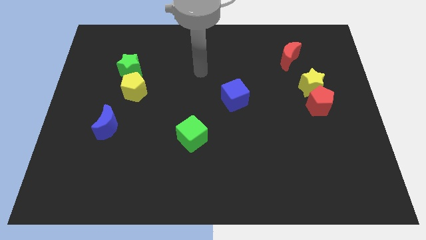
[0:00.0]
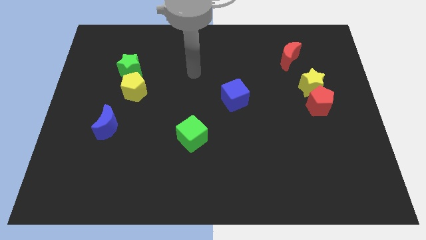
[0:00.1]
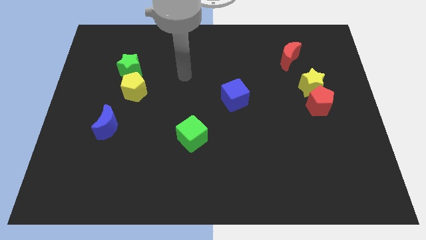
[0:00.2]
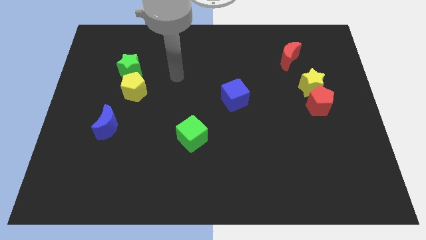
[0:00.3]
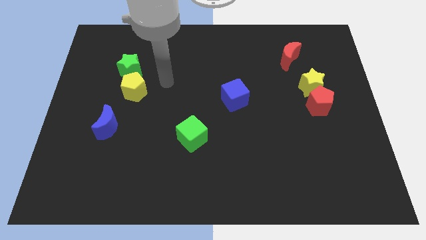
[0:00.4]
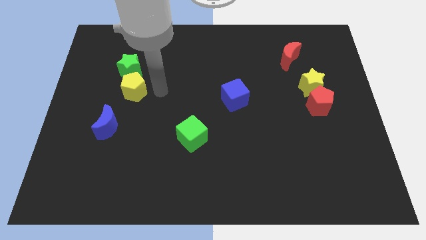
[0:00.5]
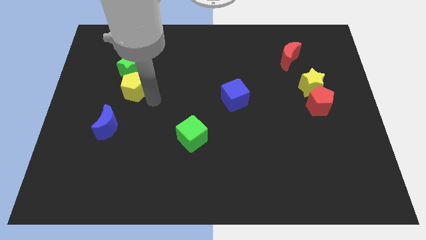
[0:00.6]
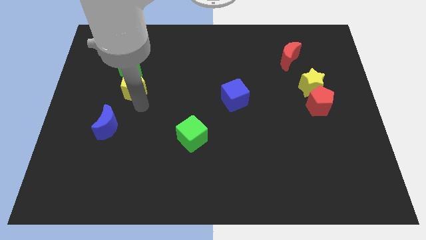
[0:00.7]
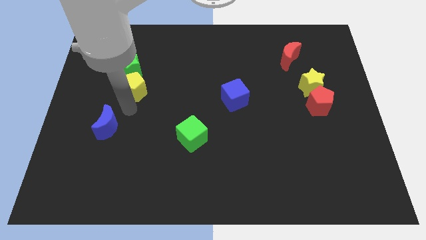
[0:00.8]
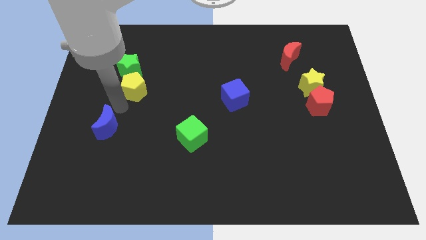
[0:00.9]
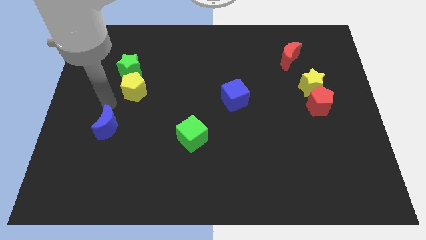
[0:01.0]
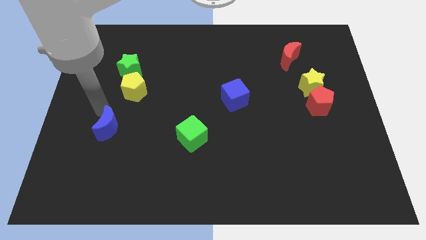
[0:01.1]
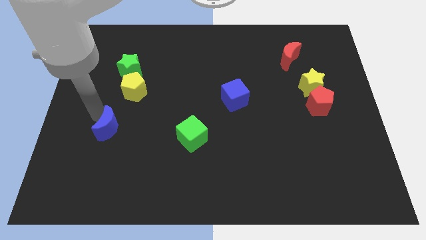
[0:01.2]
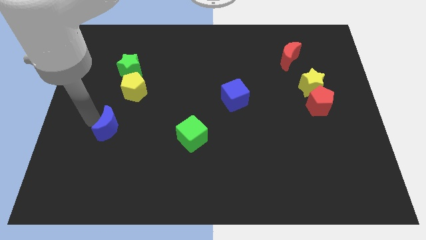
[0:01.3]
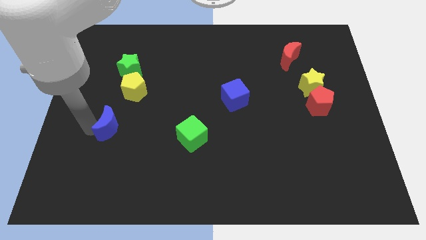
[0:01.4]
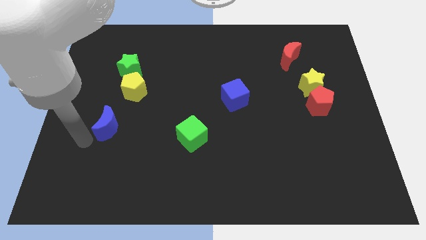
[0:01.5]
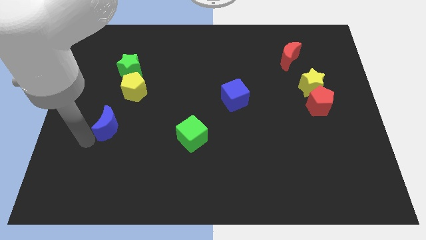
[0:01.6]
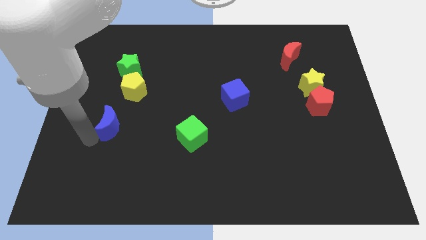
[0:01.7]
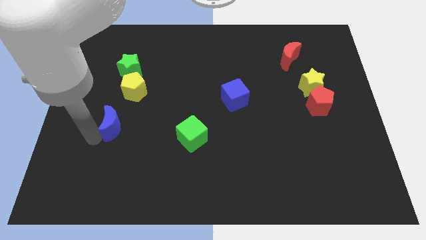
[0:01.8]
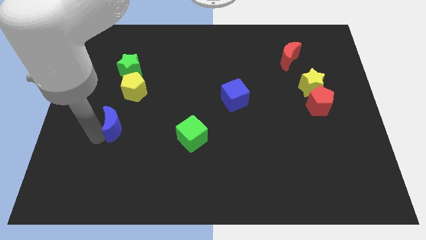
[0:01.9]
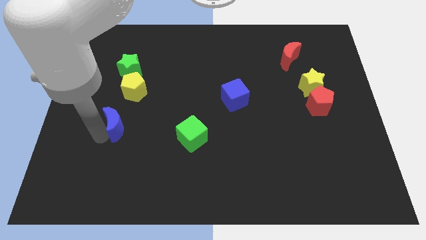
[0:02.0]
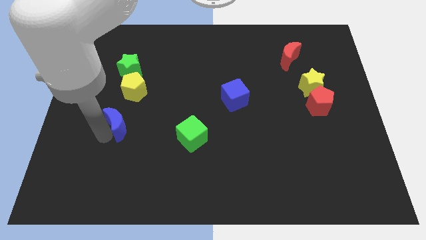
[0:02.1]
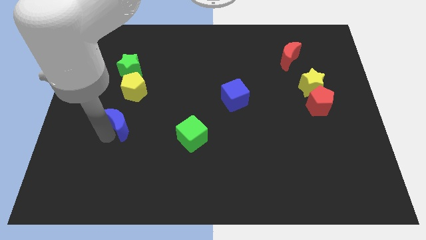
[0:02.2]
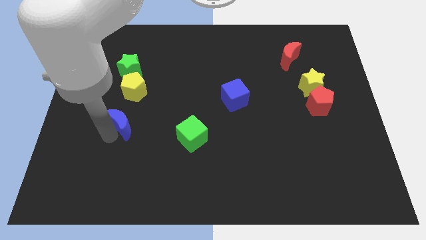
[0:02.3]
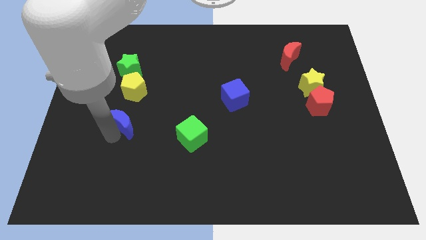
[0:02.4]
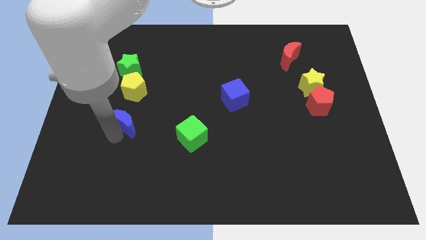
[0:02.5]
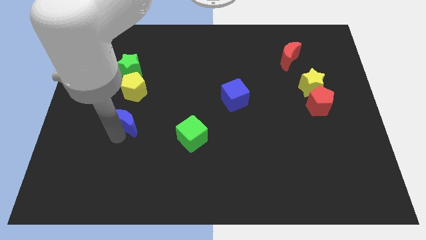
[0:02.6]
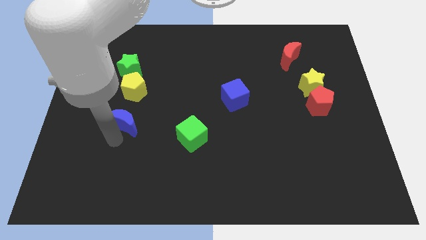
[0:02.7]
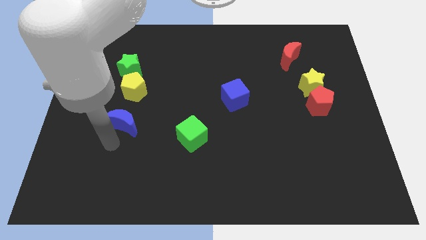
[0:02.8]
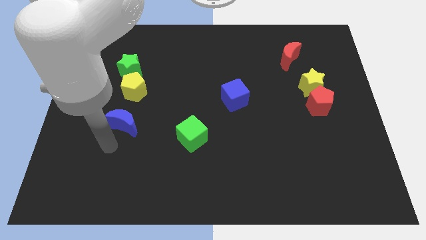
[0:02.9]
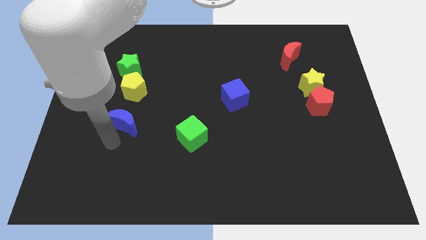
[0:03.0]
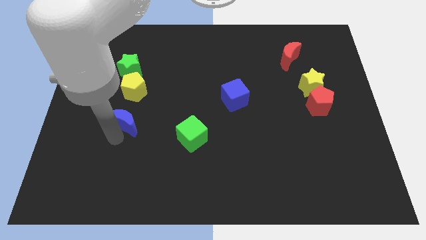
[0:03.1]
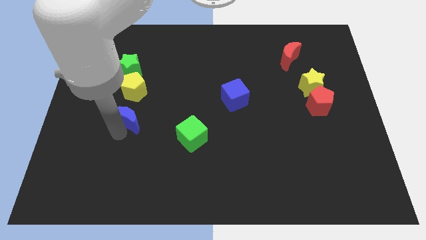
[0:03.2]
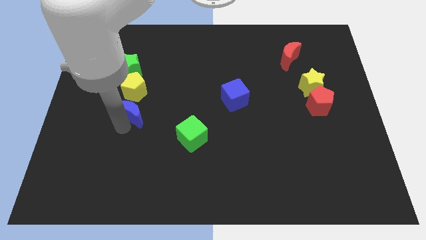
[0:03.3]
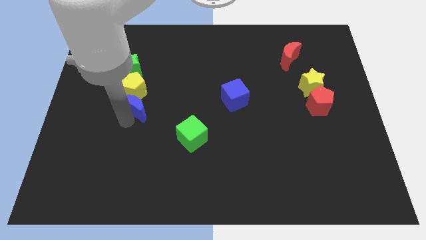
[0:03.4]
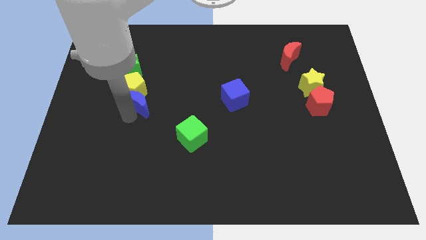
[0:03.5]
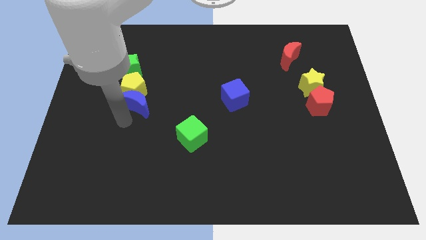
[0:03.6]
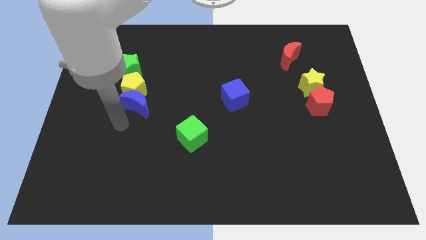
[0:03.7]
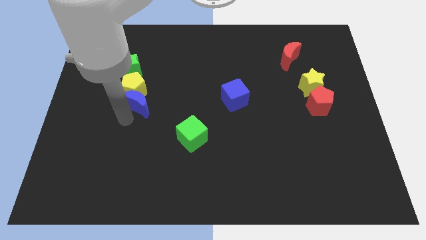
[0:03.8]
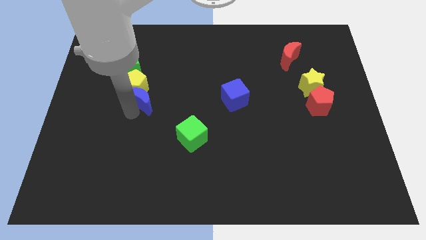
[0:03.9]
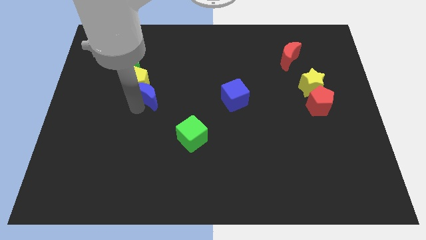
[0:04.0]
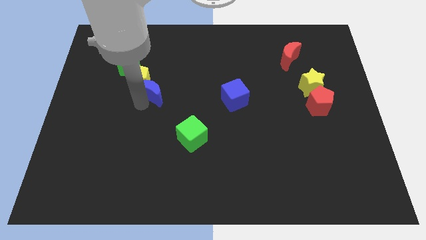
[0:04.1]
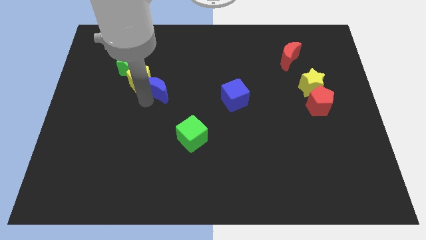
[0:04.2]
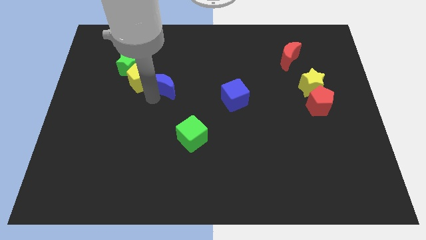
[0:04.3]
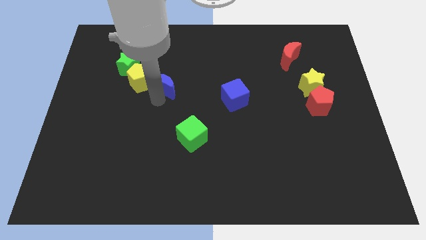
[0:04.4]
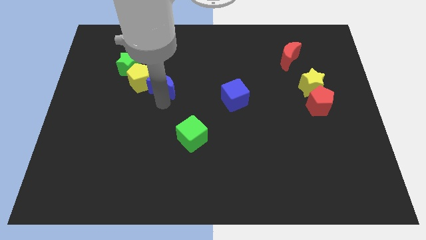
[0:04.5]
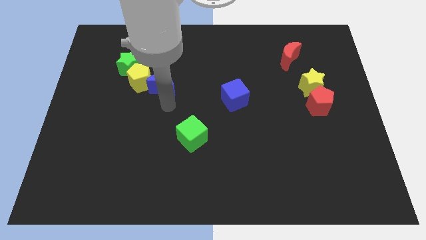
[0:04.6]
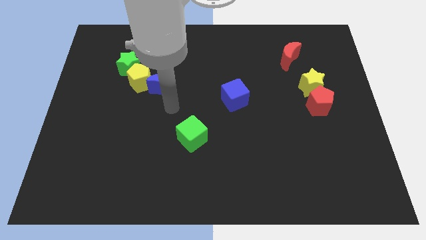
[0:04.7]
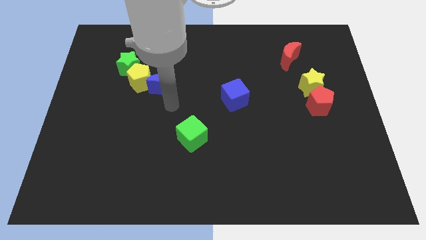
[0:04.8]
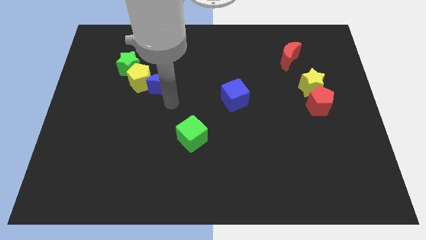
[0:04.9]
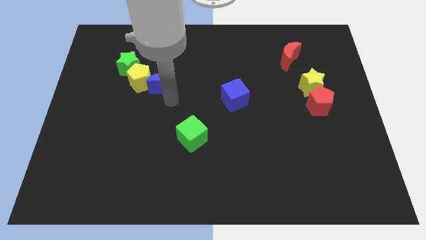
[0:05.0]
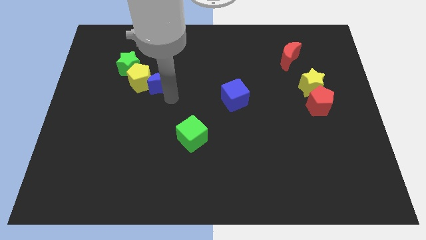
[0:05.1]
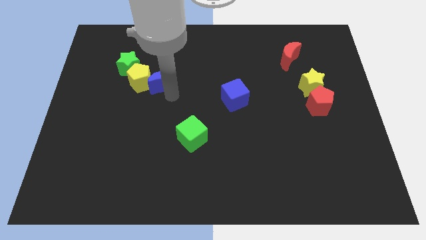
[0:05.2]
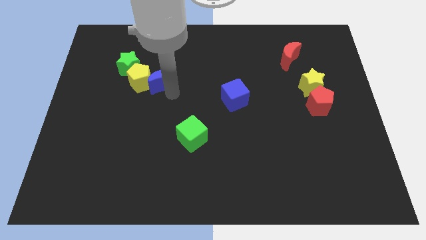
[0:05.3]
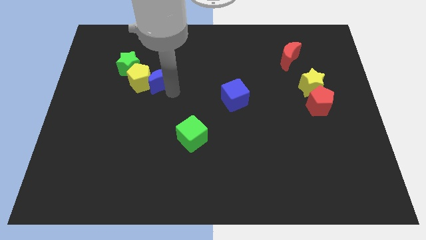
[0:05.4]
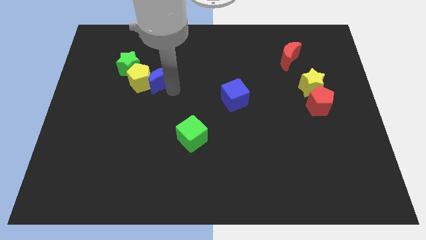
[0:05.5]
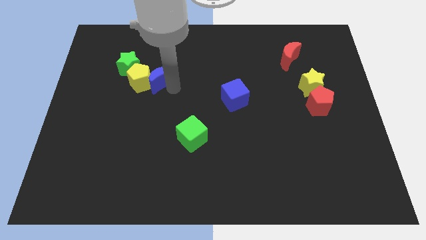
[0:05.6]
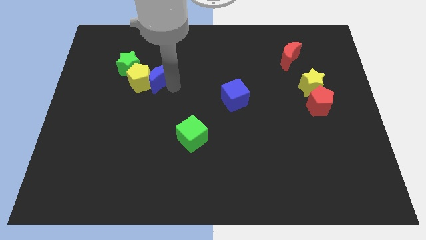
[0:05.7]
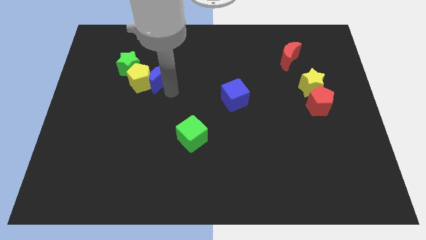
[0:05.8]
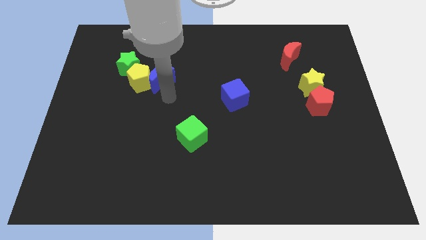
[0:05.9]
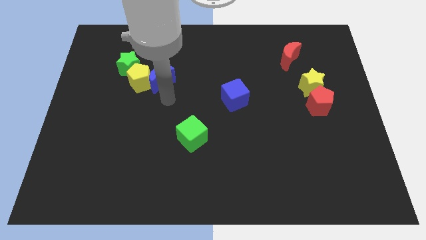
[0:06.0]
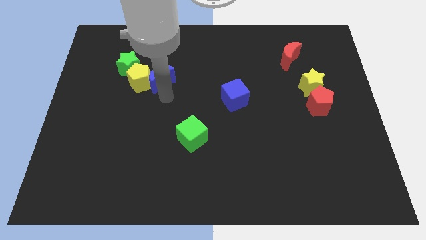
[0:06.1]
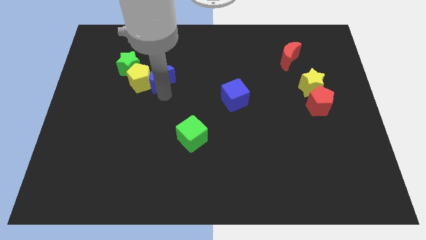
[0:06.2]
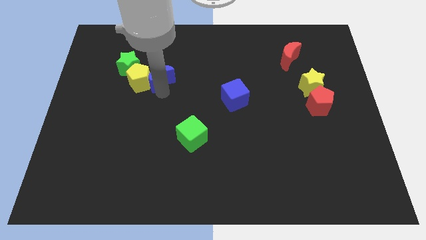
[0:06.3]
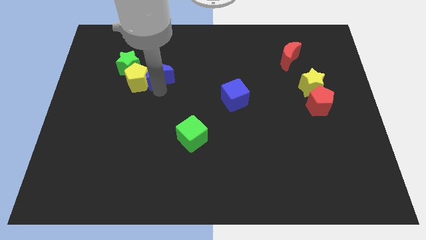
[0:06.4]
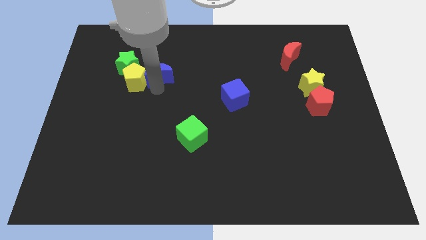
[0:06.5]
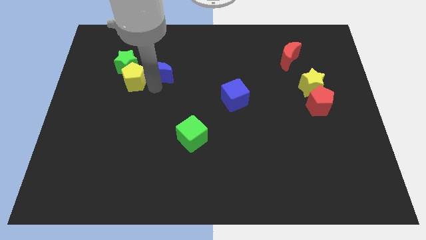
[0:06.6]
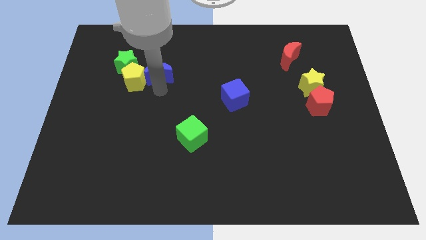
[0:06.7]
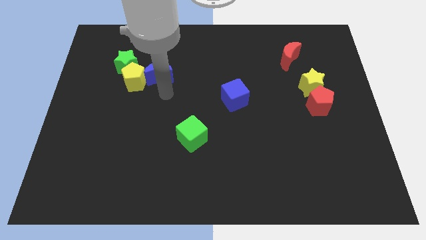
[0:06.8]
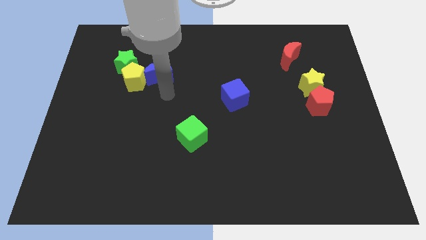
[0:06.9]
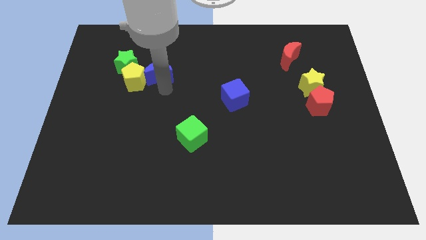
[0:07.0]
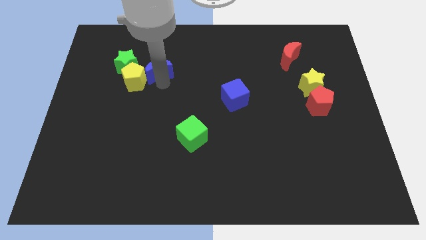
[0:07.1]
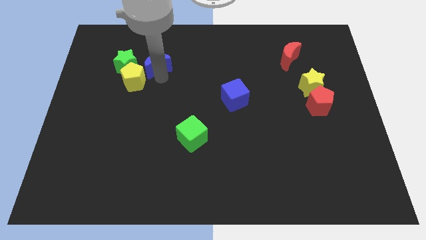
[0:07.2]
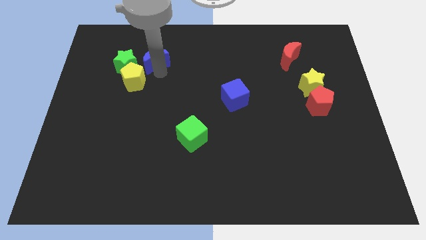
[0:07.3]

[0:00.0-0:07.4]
slide the blue moon diagonally up and to the right of the green star
